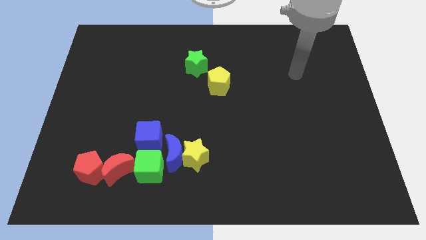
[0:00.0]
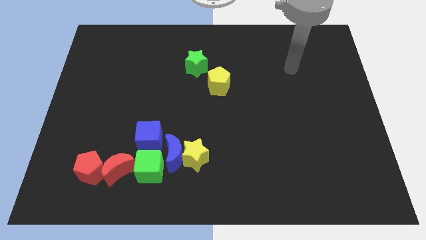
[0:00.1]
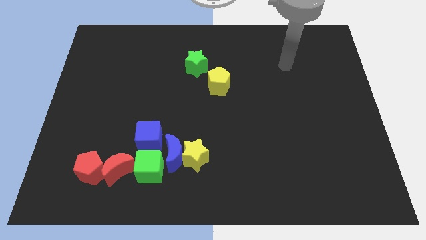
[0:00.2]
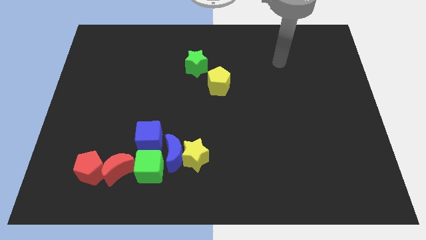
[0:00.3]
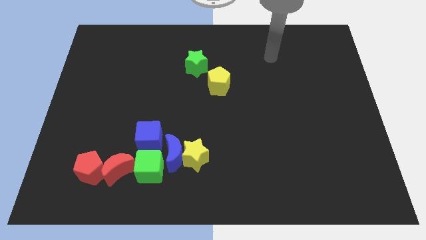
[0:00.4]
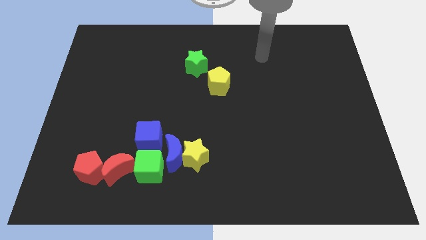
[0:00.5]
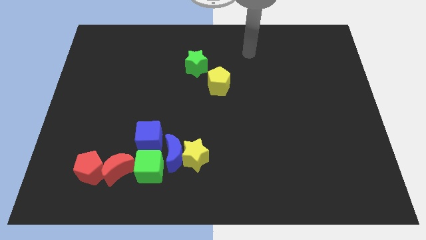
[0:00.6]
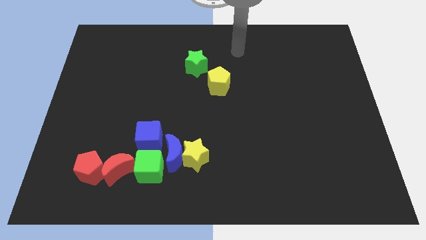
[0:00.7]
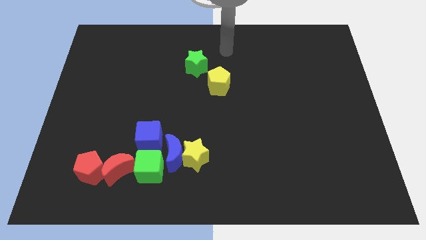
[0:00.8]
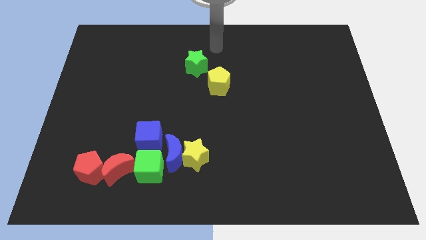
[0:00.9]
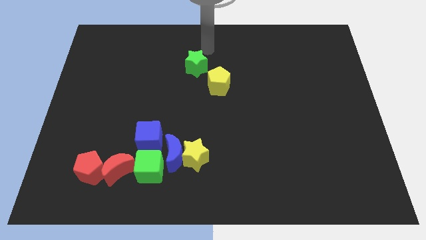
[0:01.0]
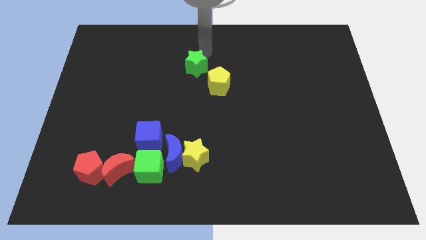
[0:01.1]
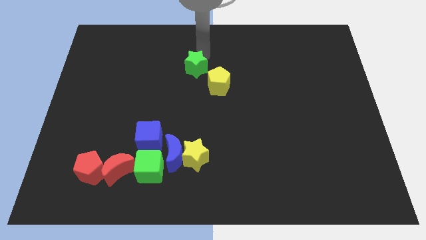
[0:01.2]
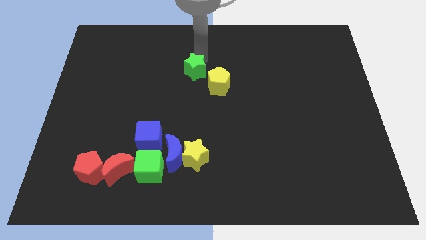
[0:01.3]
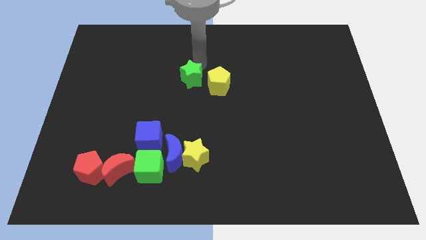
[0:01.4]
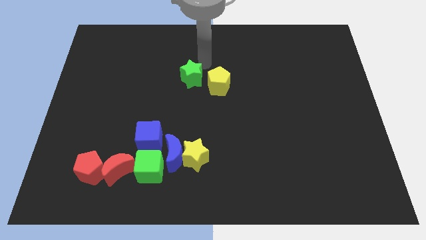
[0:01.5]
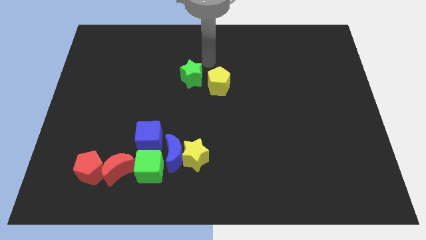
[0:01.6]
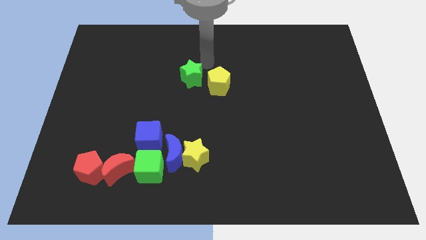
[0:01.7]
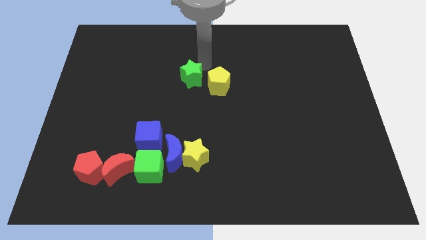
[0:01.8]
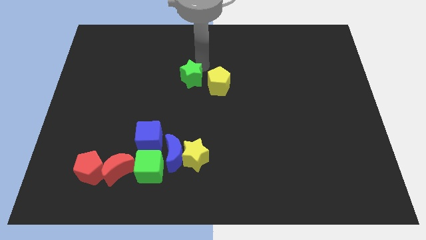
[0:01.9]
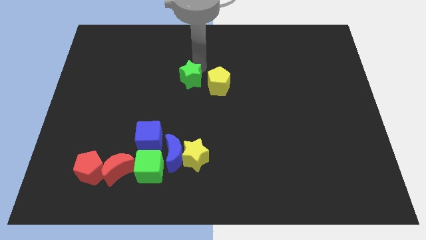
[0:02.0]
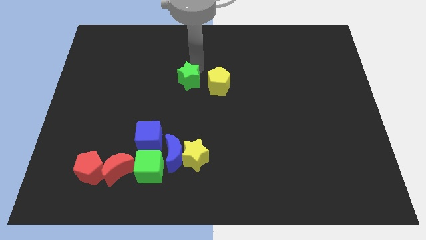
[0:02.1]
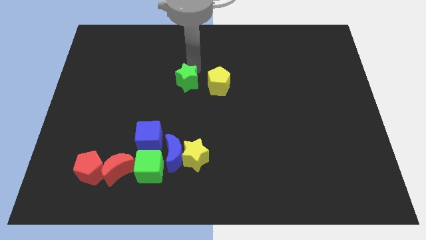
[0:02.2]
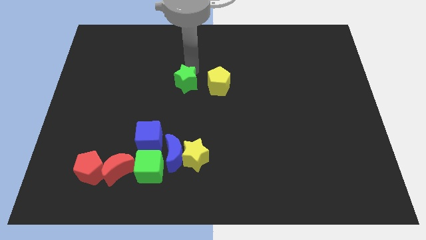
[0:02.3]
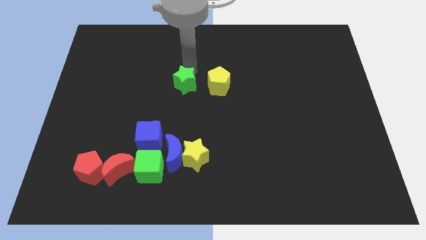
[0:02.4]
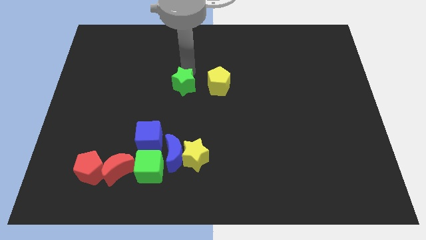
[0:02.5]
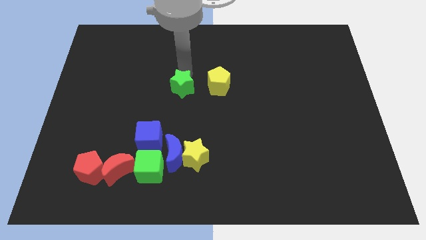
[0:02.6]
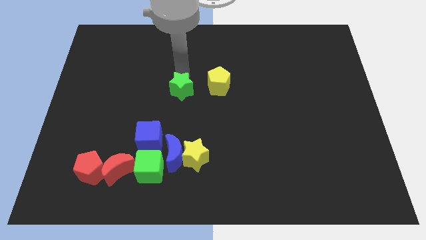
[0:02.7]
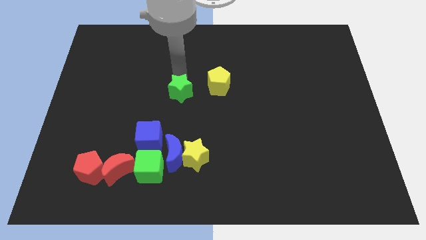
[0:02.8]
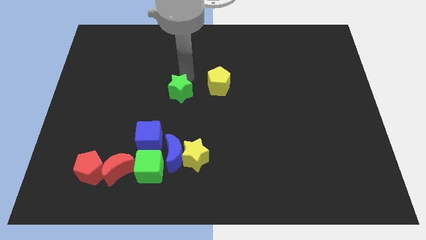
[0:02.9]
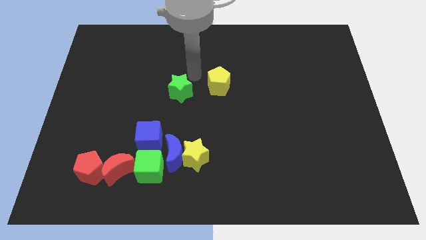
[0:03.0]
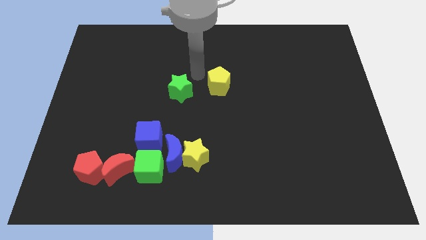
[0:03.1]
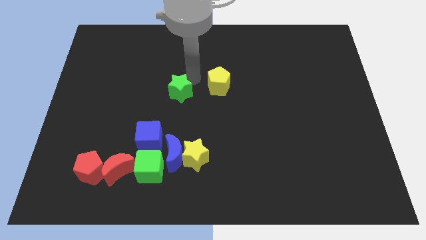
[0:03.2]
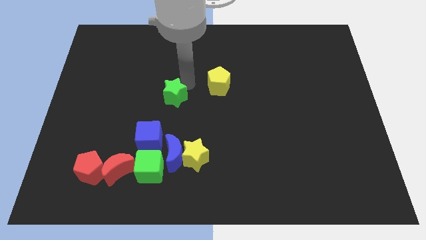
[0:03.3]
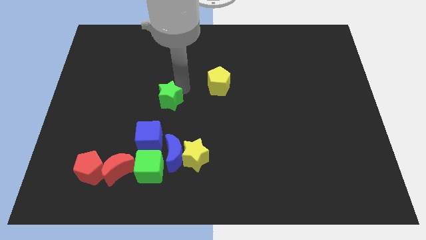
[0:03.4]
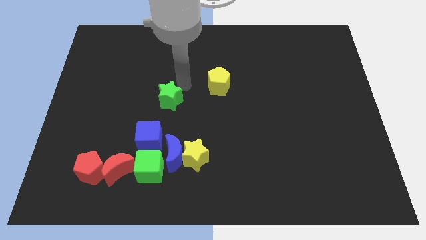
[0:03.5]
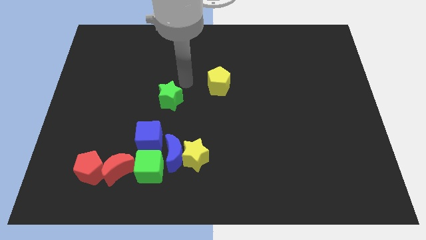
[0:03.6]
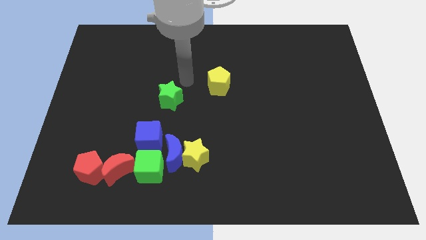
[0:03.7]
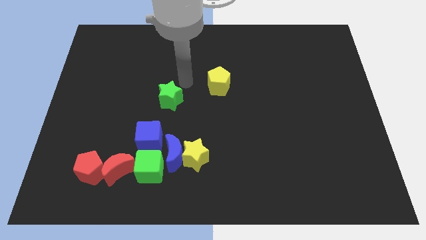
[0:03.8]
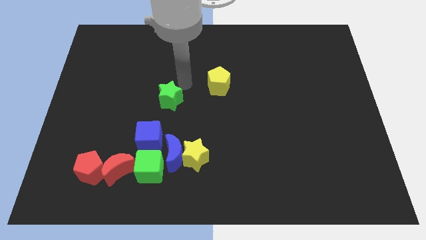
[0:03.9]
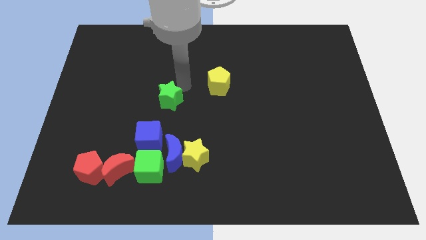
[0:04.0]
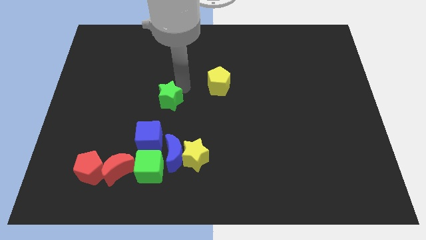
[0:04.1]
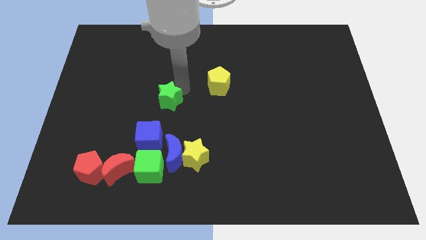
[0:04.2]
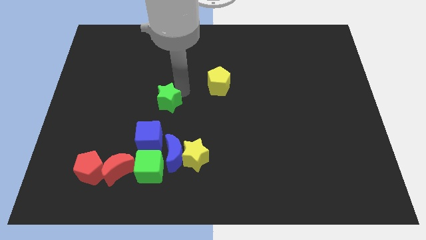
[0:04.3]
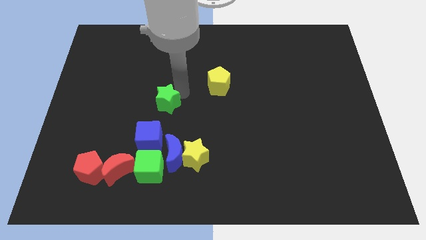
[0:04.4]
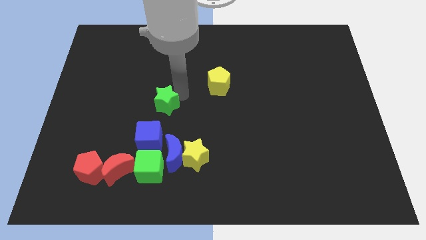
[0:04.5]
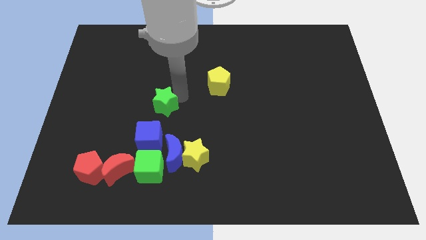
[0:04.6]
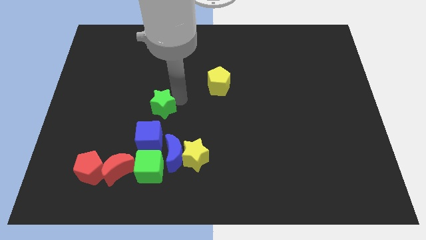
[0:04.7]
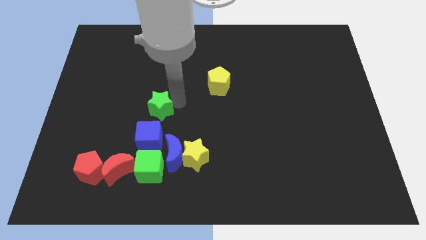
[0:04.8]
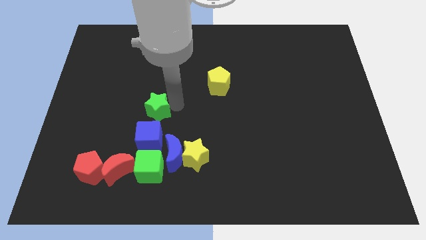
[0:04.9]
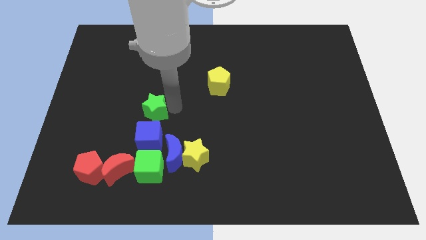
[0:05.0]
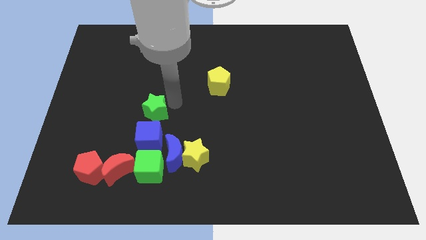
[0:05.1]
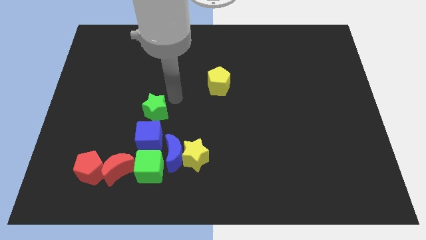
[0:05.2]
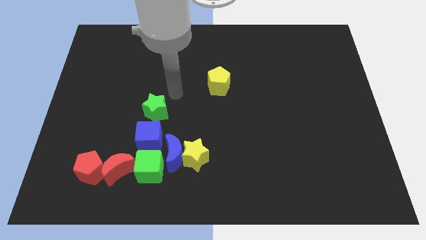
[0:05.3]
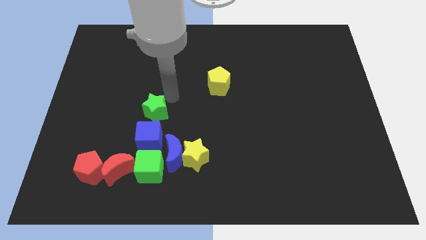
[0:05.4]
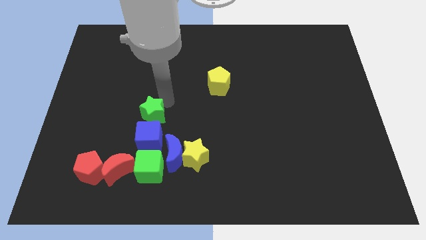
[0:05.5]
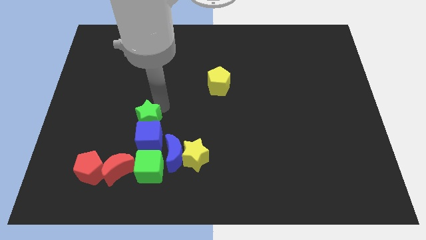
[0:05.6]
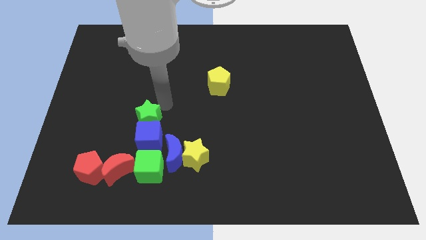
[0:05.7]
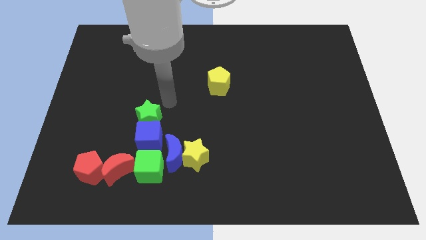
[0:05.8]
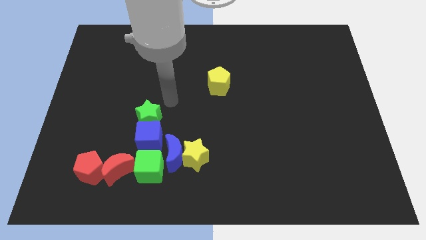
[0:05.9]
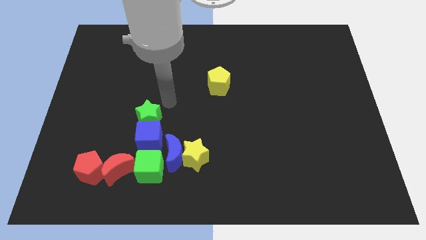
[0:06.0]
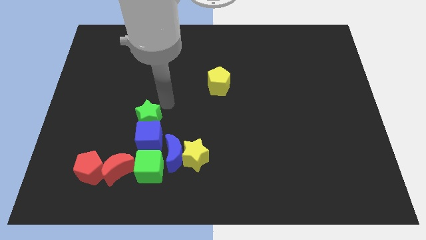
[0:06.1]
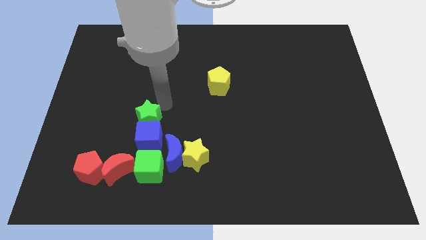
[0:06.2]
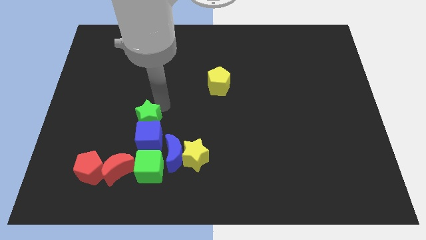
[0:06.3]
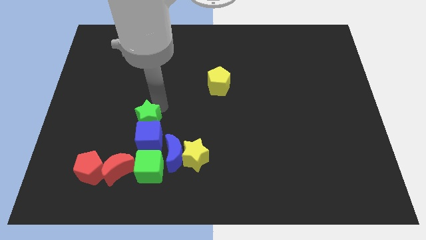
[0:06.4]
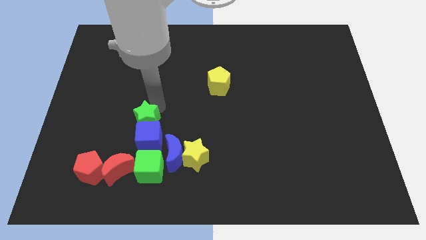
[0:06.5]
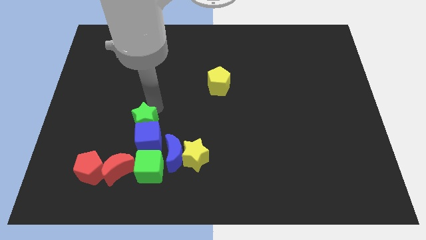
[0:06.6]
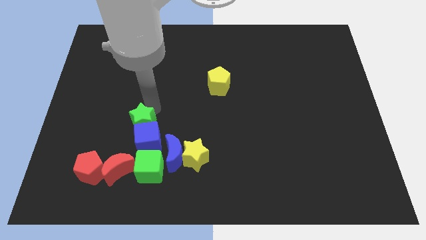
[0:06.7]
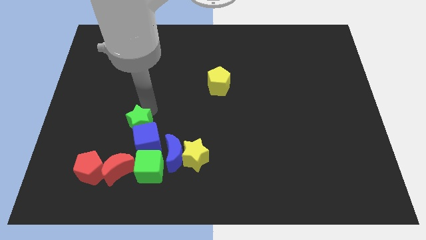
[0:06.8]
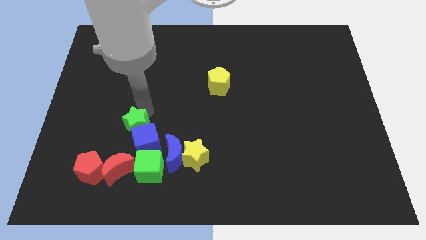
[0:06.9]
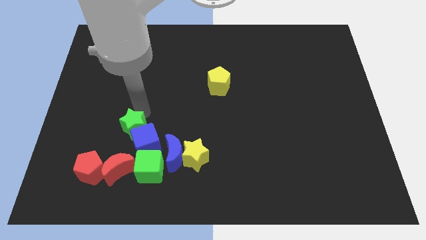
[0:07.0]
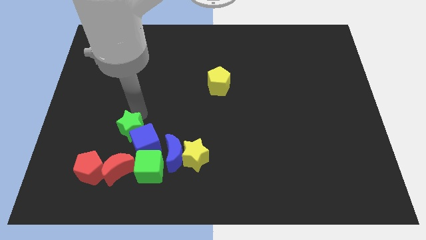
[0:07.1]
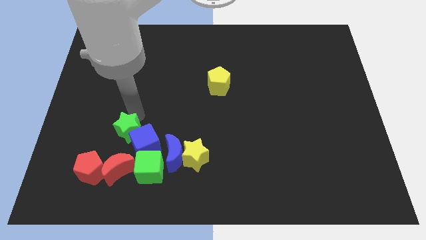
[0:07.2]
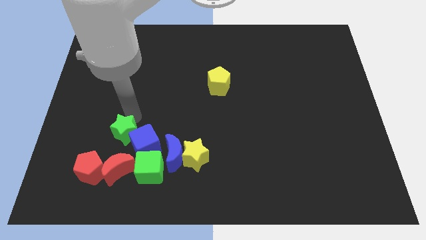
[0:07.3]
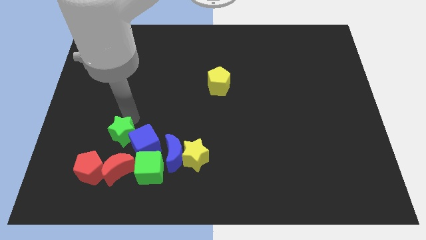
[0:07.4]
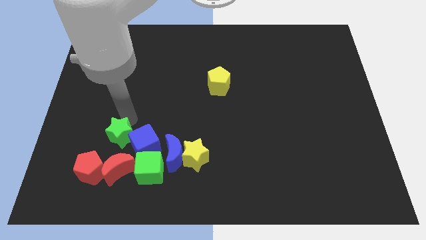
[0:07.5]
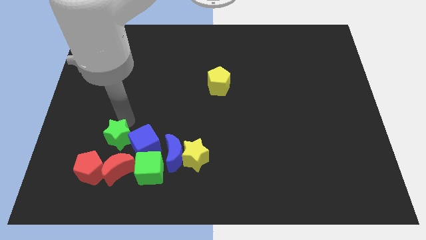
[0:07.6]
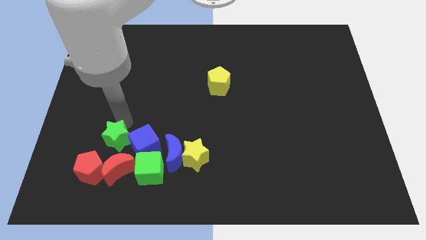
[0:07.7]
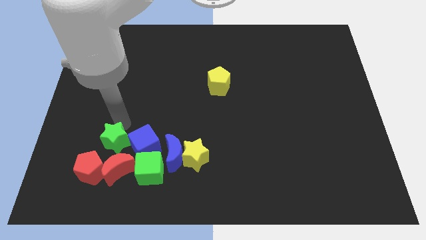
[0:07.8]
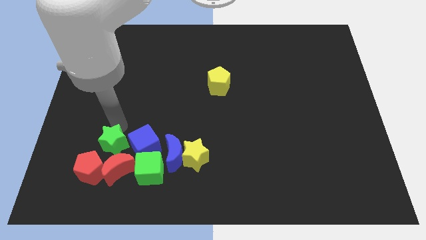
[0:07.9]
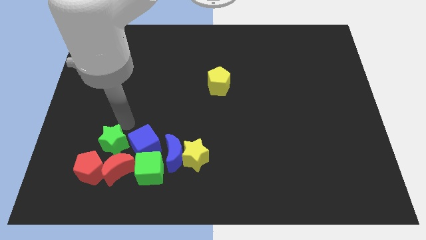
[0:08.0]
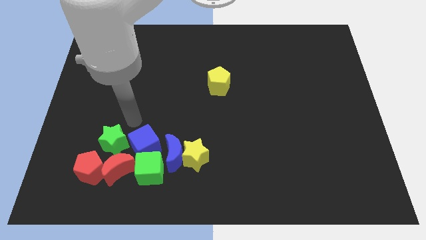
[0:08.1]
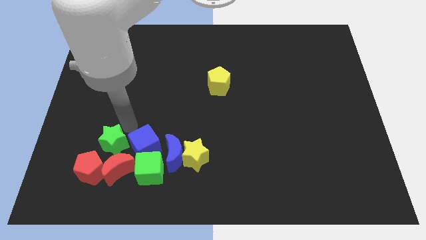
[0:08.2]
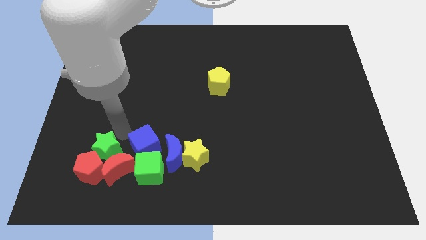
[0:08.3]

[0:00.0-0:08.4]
move the green star towards the red pentagon
